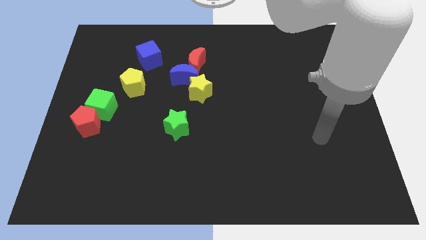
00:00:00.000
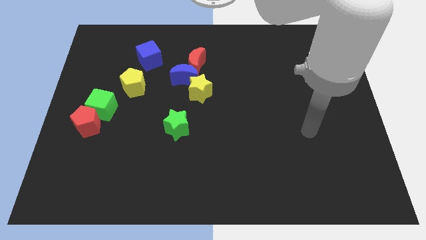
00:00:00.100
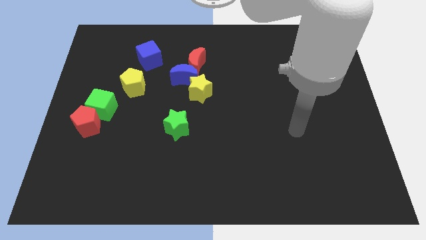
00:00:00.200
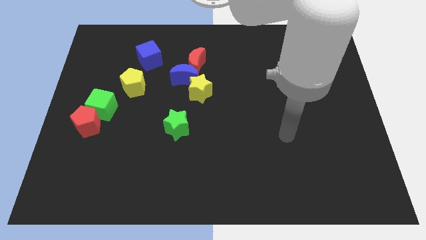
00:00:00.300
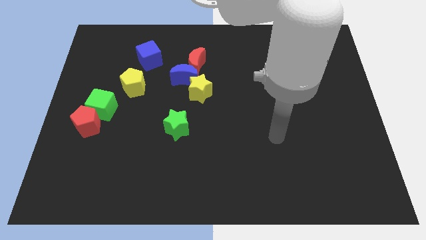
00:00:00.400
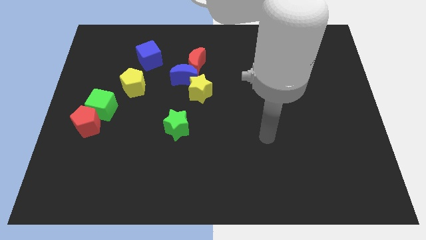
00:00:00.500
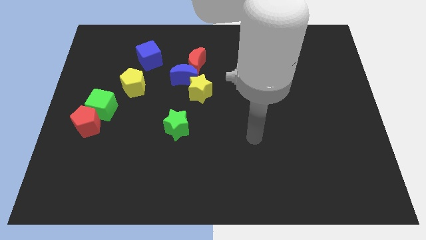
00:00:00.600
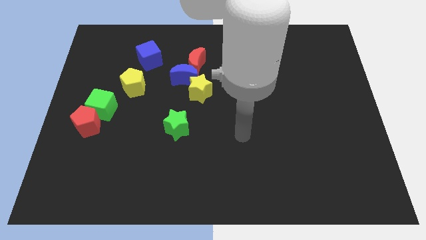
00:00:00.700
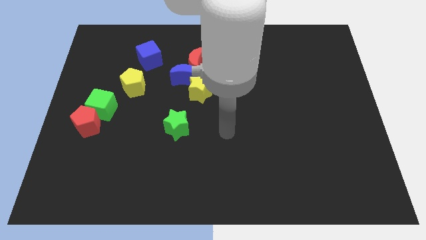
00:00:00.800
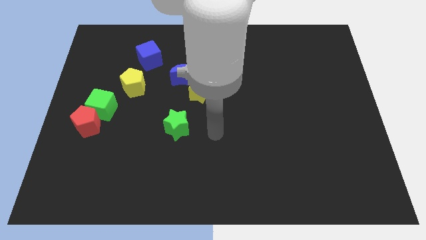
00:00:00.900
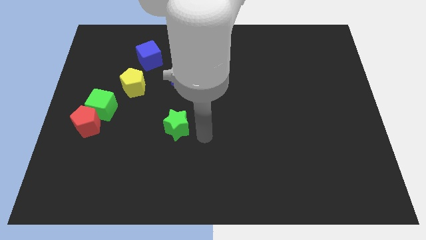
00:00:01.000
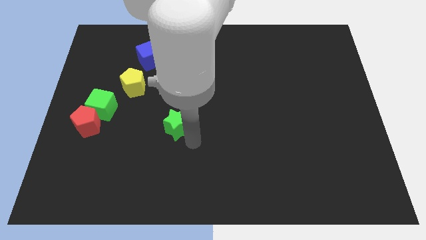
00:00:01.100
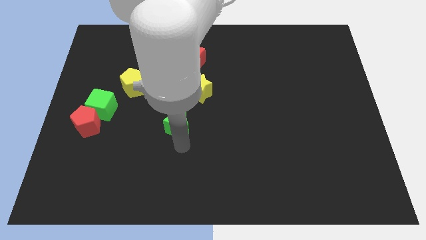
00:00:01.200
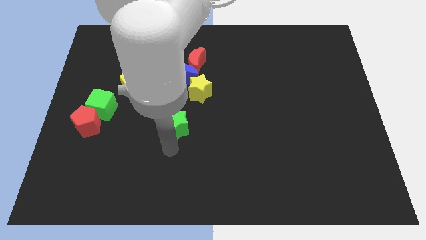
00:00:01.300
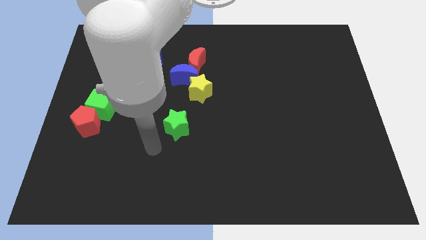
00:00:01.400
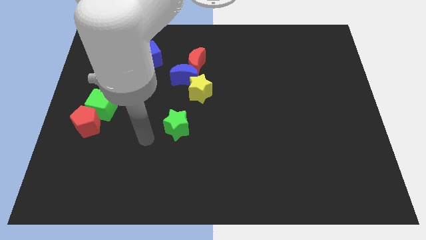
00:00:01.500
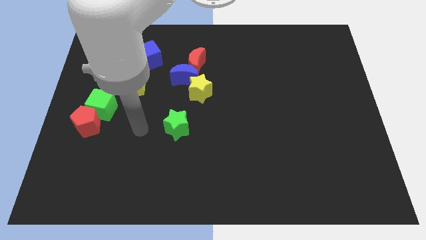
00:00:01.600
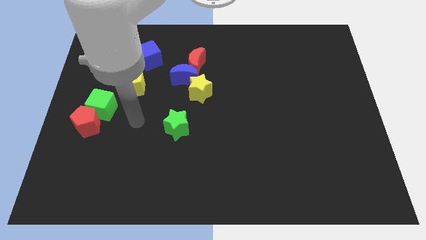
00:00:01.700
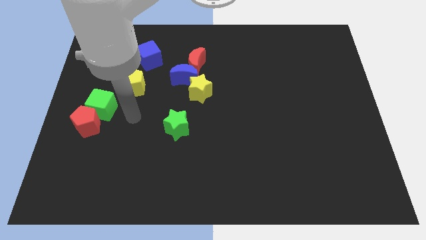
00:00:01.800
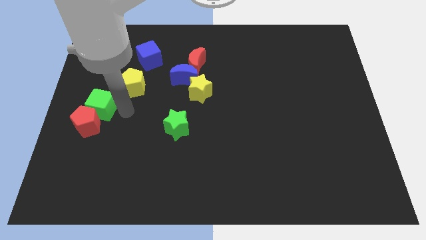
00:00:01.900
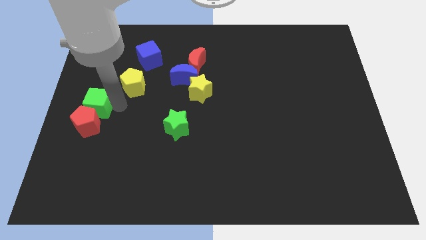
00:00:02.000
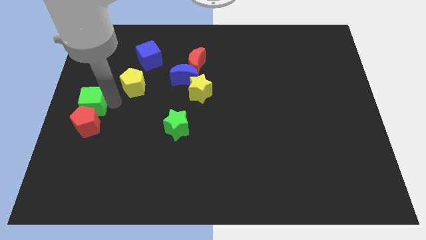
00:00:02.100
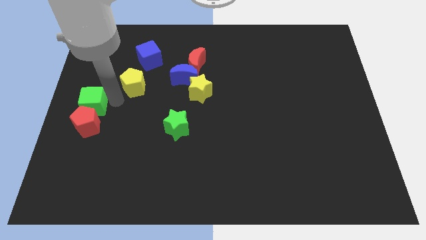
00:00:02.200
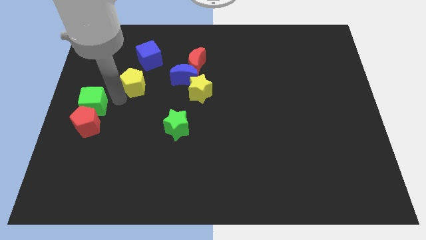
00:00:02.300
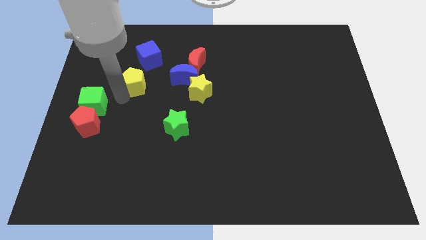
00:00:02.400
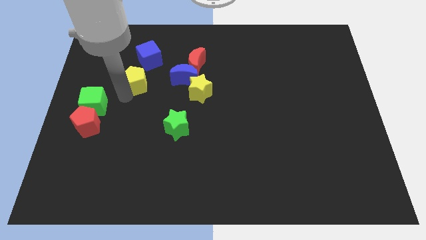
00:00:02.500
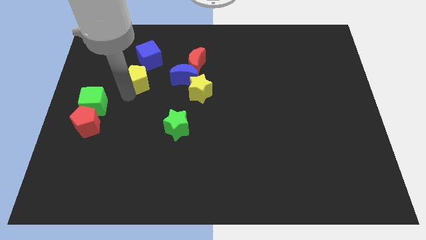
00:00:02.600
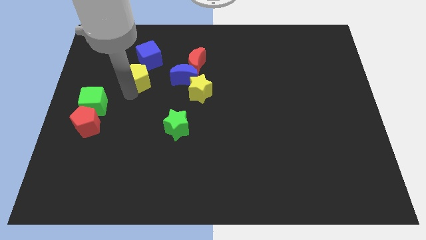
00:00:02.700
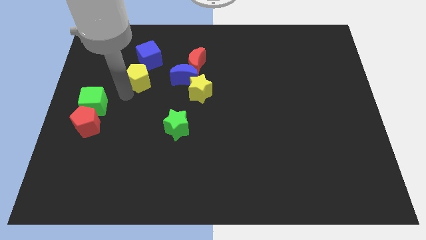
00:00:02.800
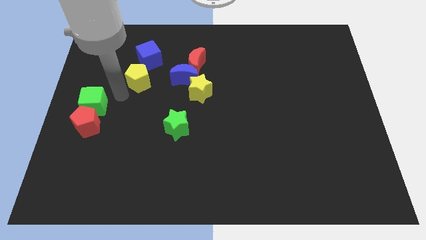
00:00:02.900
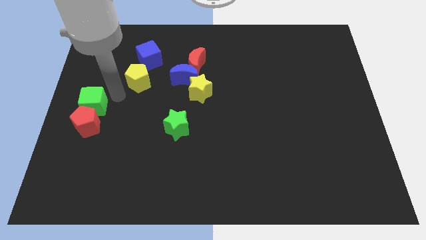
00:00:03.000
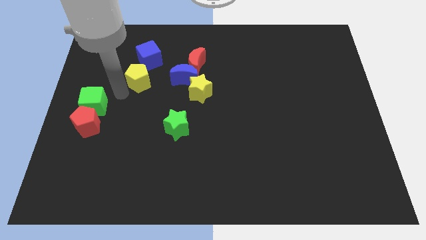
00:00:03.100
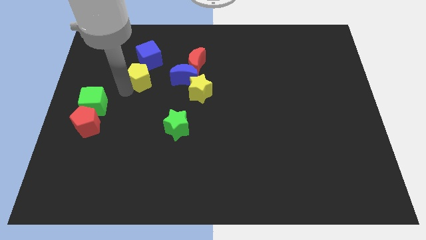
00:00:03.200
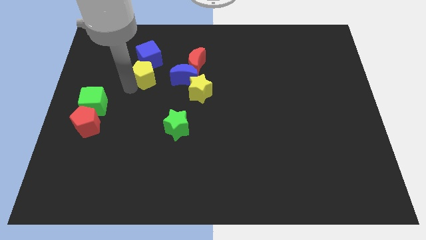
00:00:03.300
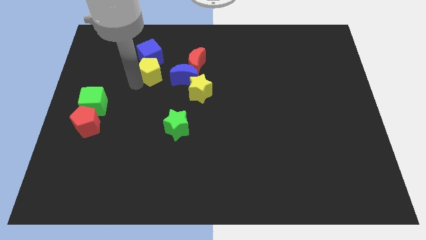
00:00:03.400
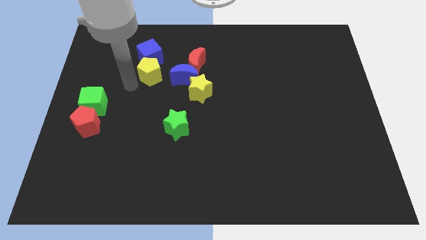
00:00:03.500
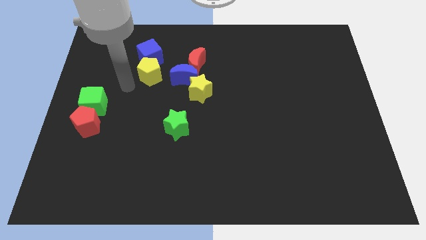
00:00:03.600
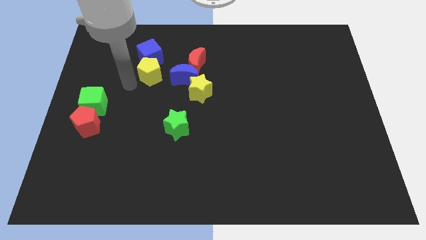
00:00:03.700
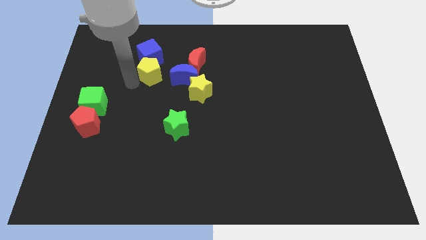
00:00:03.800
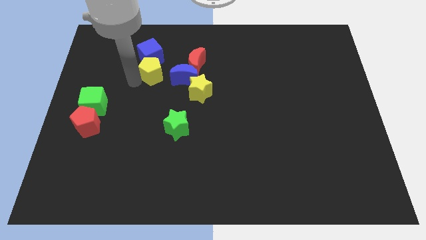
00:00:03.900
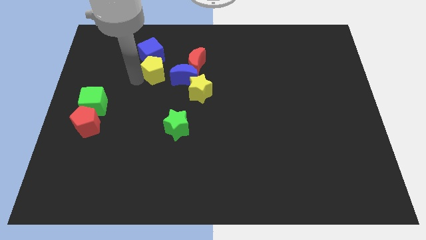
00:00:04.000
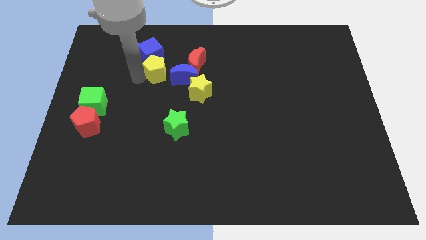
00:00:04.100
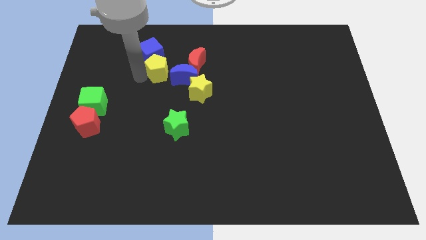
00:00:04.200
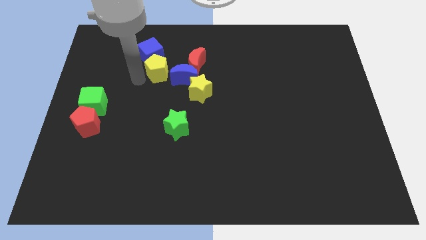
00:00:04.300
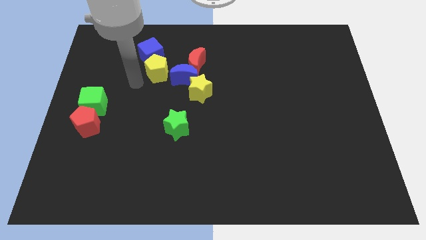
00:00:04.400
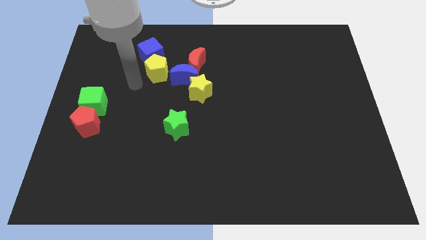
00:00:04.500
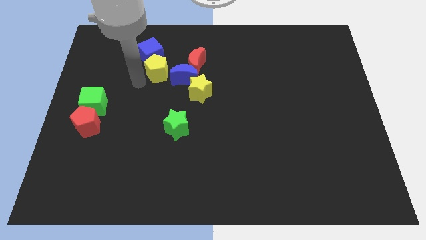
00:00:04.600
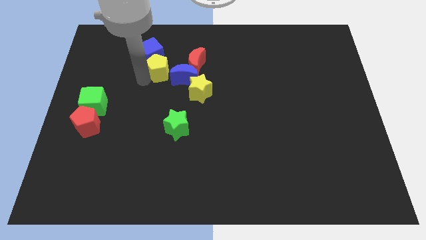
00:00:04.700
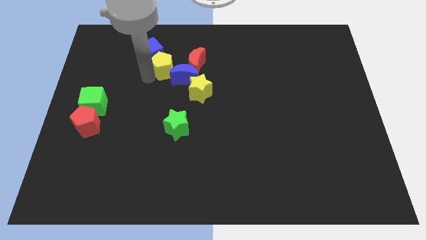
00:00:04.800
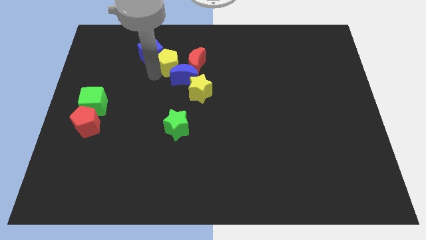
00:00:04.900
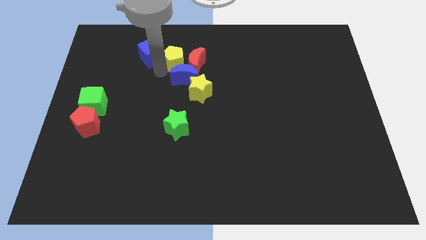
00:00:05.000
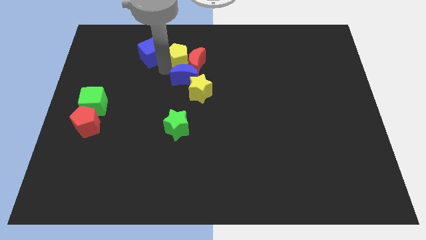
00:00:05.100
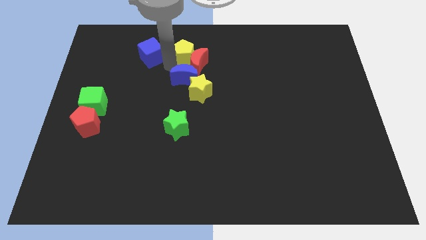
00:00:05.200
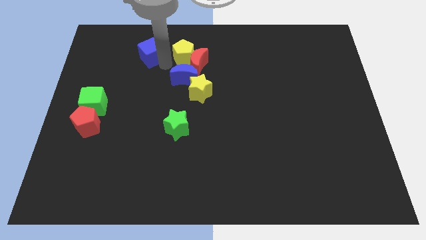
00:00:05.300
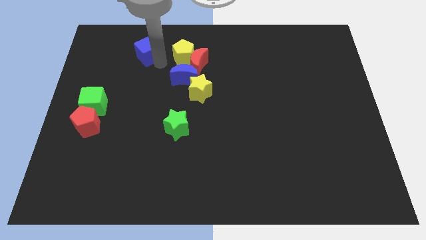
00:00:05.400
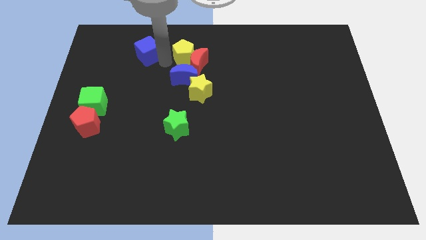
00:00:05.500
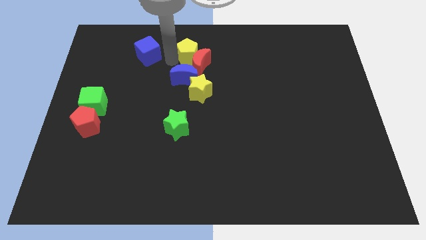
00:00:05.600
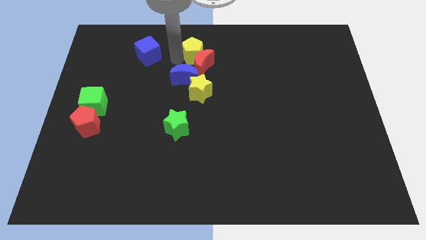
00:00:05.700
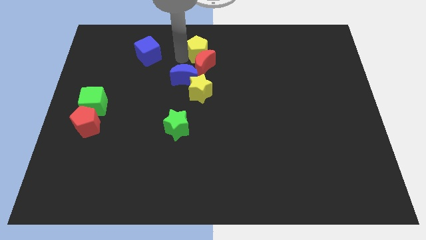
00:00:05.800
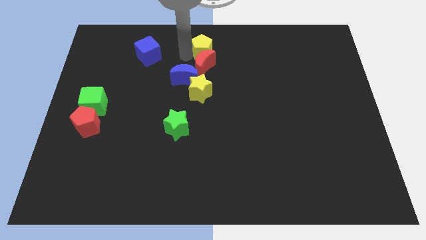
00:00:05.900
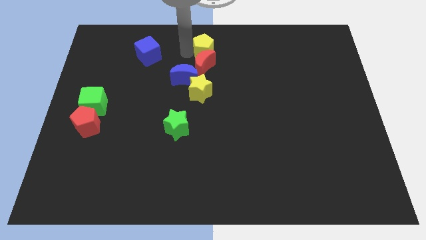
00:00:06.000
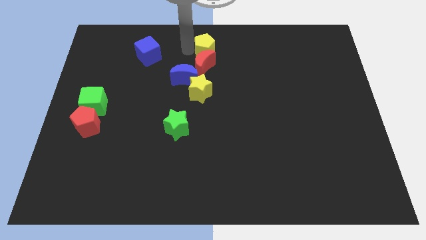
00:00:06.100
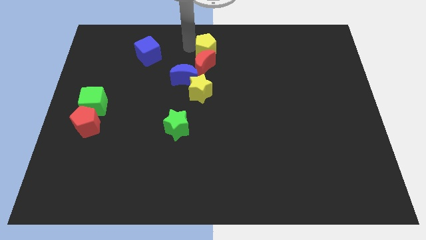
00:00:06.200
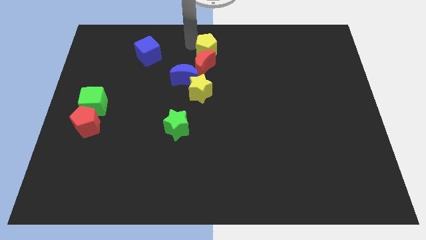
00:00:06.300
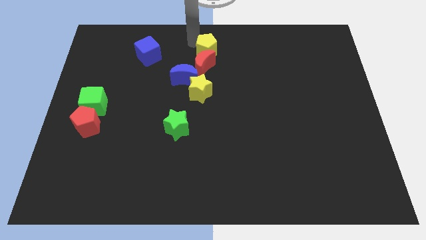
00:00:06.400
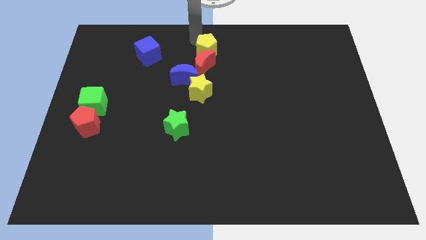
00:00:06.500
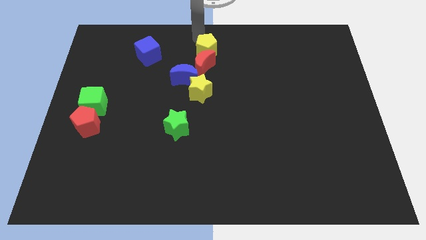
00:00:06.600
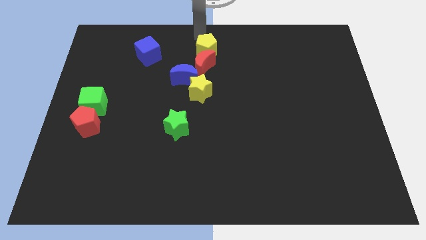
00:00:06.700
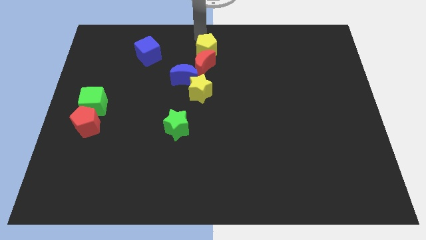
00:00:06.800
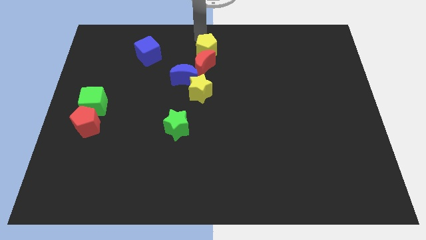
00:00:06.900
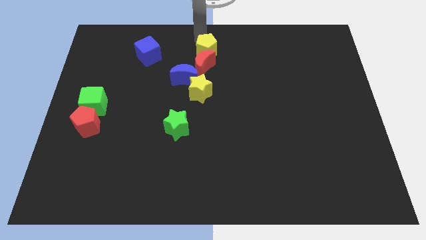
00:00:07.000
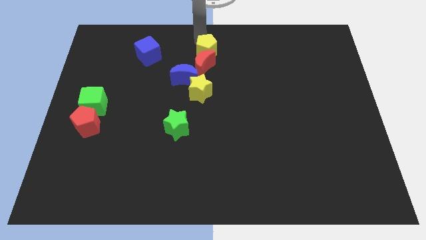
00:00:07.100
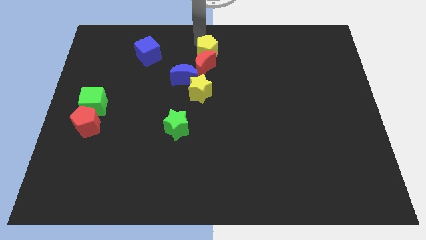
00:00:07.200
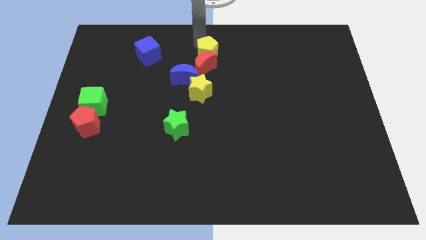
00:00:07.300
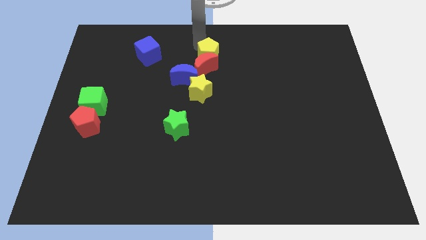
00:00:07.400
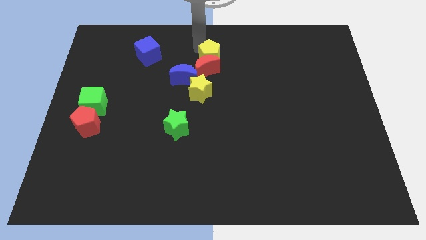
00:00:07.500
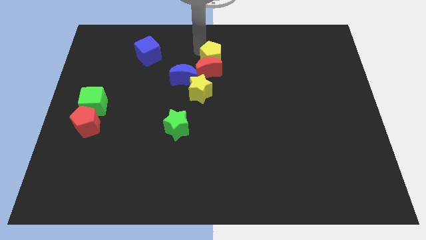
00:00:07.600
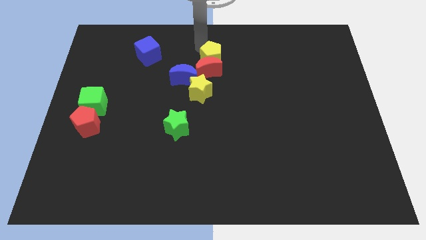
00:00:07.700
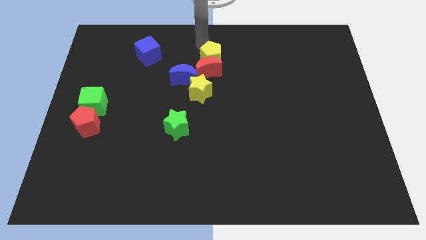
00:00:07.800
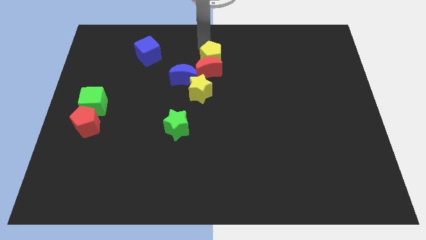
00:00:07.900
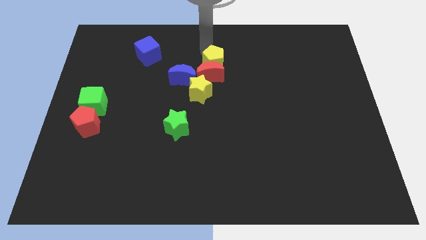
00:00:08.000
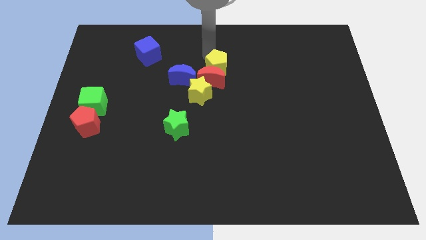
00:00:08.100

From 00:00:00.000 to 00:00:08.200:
push the yellow pentagon diagonally up and to the right of the yellow star
